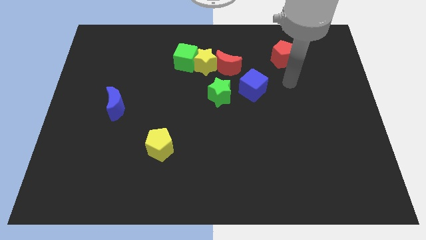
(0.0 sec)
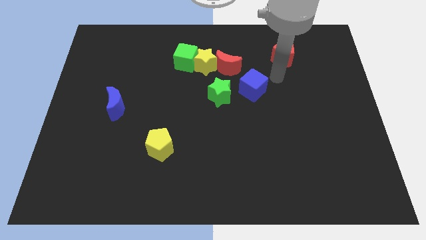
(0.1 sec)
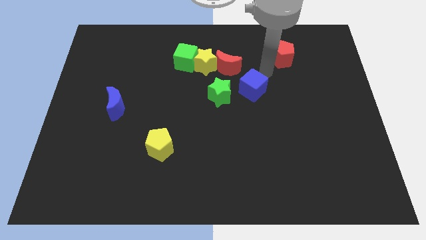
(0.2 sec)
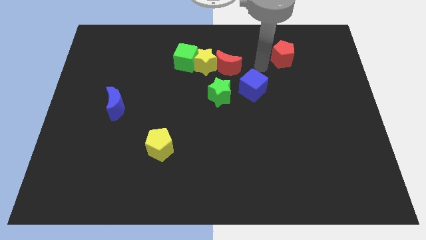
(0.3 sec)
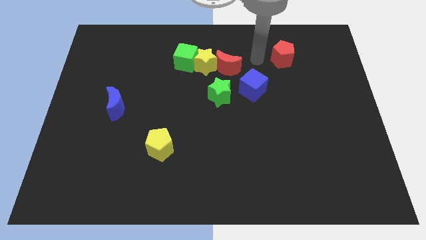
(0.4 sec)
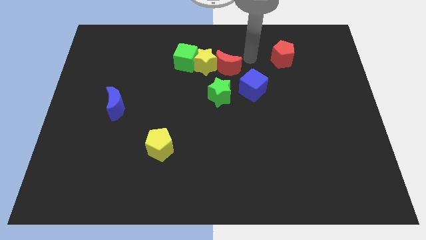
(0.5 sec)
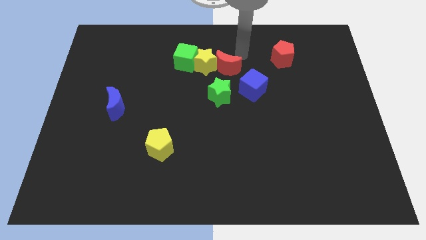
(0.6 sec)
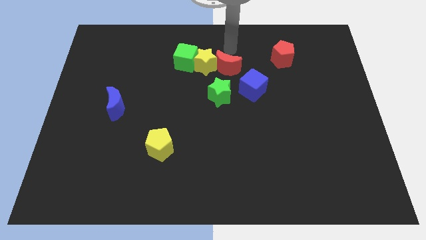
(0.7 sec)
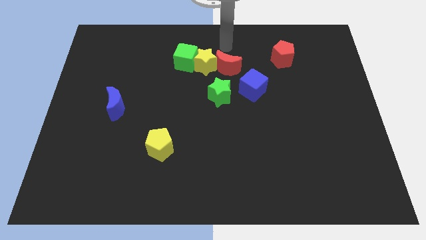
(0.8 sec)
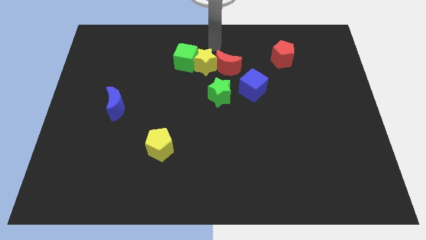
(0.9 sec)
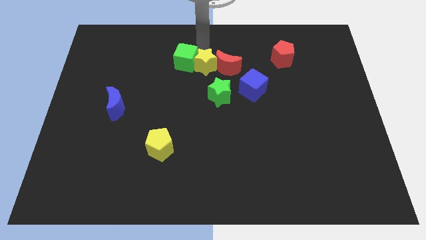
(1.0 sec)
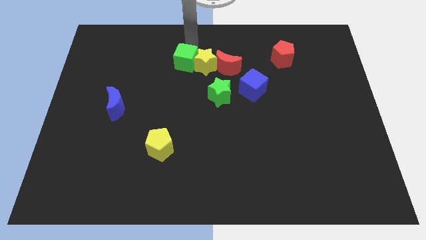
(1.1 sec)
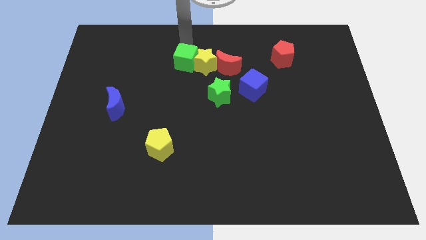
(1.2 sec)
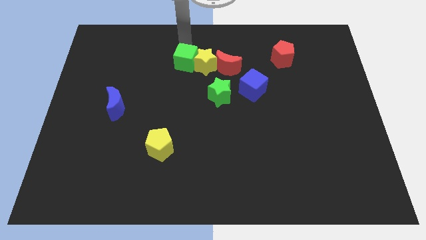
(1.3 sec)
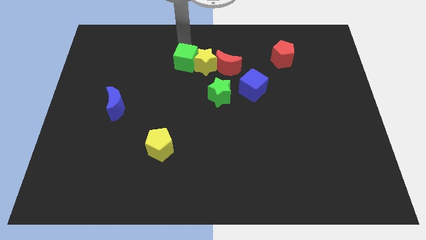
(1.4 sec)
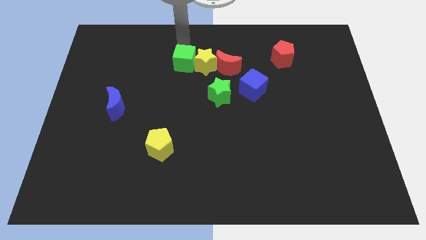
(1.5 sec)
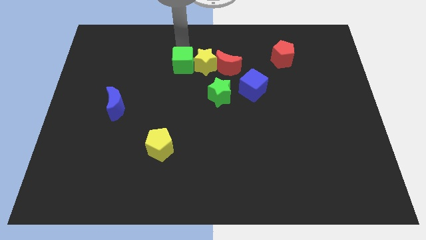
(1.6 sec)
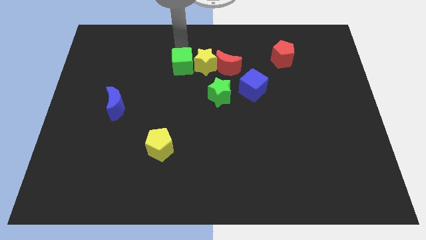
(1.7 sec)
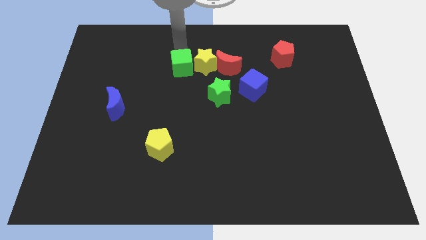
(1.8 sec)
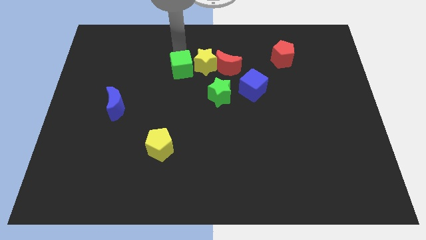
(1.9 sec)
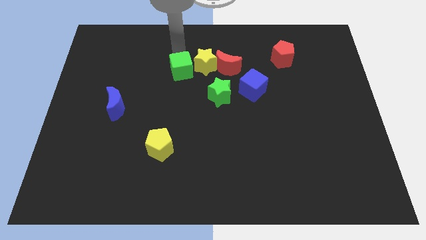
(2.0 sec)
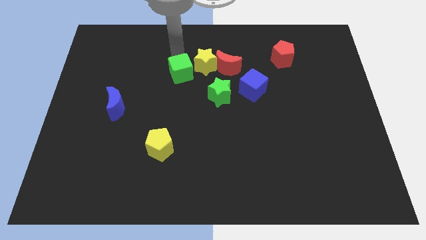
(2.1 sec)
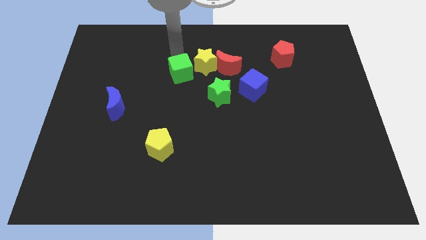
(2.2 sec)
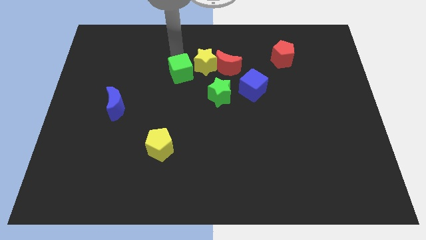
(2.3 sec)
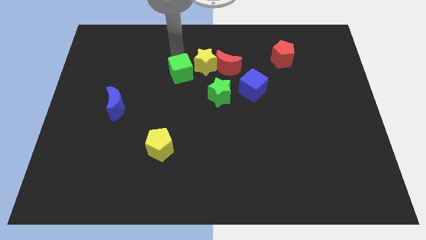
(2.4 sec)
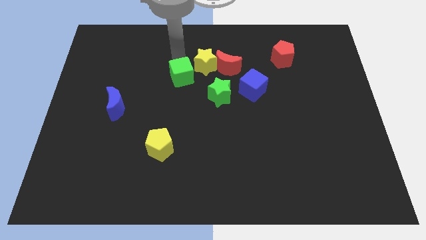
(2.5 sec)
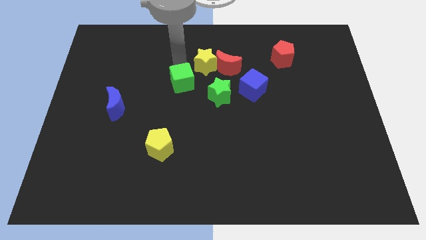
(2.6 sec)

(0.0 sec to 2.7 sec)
slightly slide the green cube down

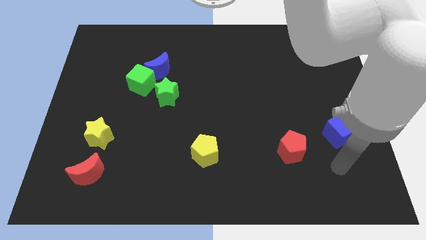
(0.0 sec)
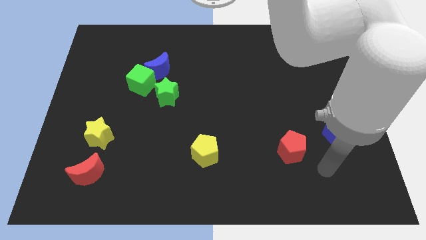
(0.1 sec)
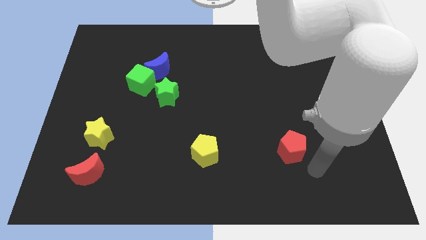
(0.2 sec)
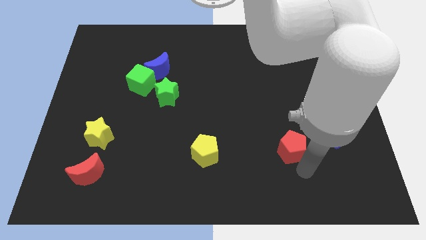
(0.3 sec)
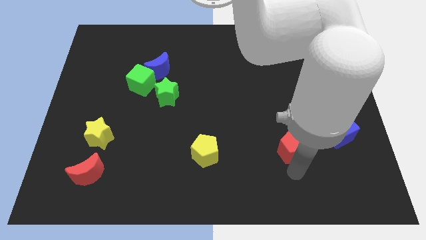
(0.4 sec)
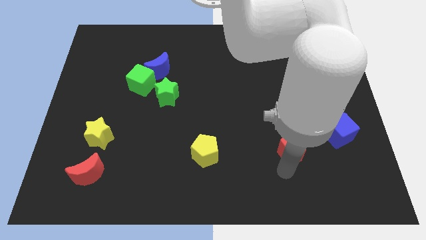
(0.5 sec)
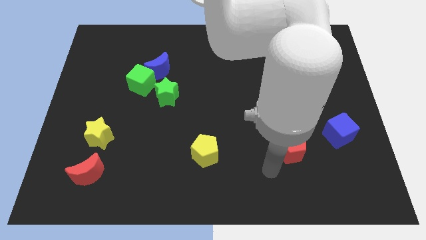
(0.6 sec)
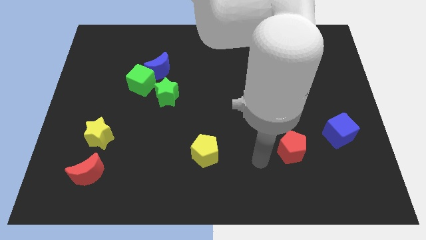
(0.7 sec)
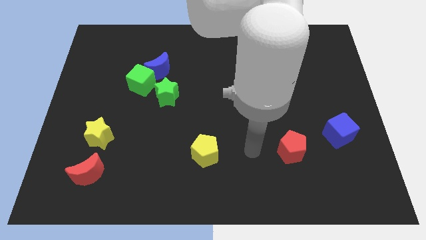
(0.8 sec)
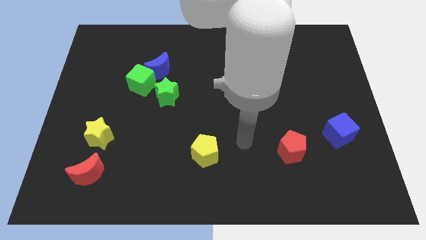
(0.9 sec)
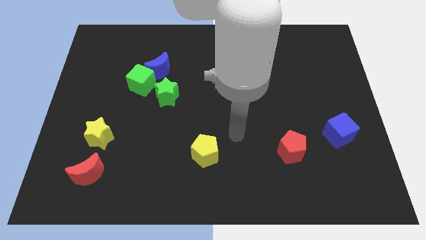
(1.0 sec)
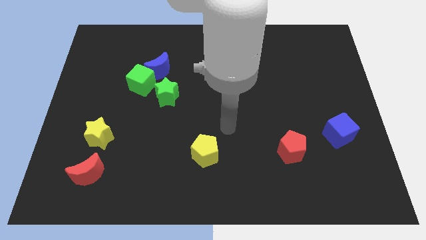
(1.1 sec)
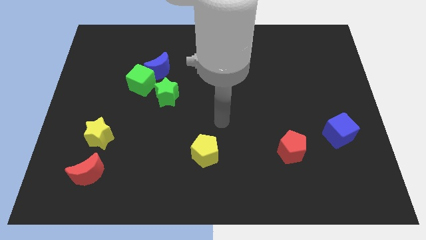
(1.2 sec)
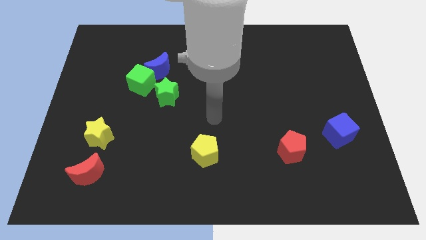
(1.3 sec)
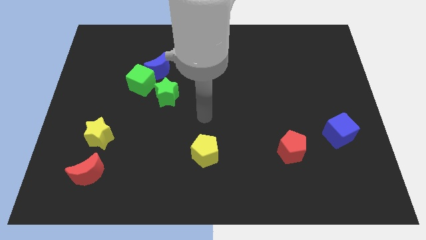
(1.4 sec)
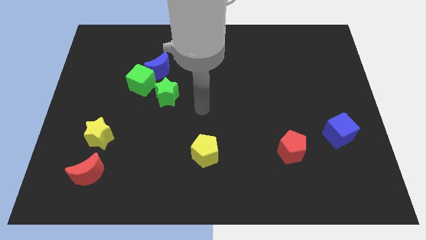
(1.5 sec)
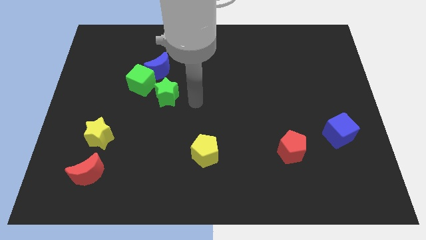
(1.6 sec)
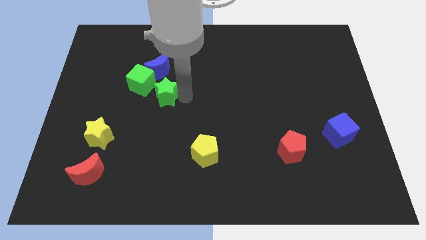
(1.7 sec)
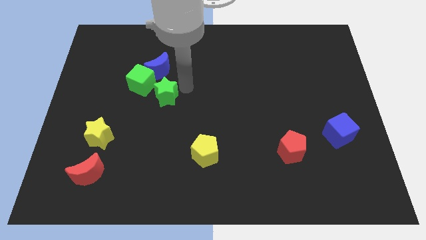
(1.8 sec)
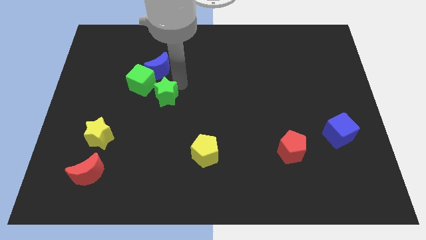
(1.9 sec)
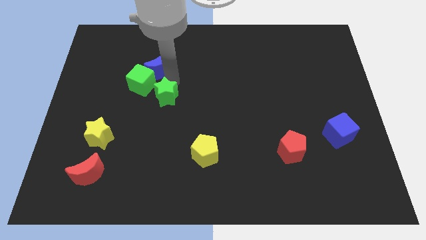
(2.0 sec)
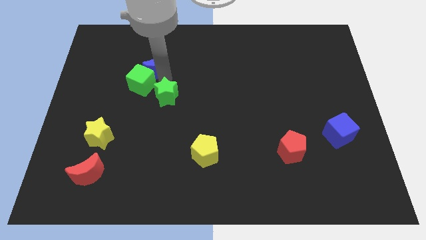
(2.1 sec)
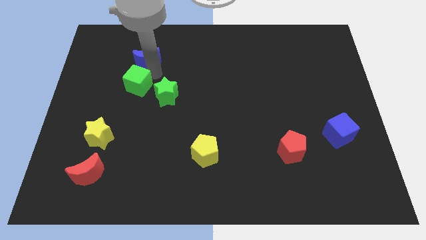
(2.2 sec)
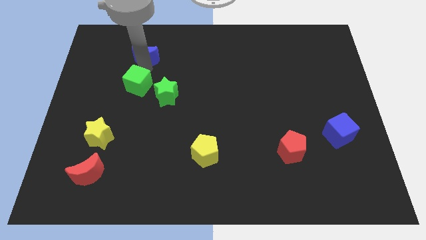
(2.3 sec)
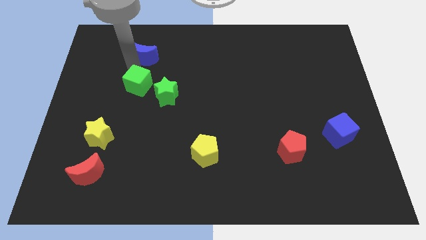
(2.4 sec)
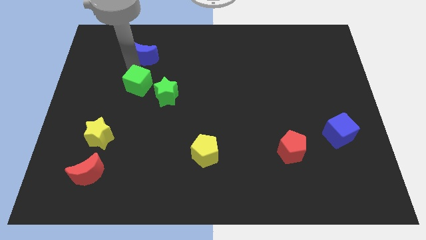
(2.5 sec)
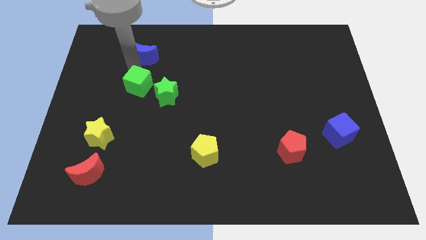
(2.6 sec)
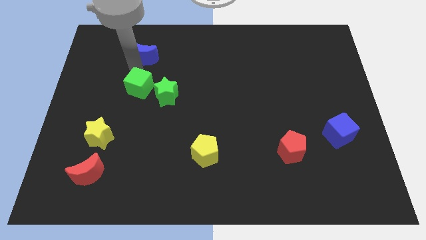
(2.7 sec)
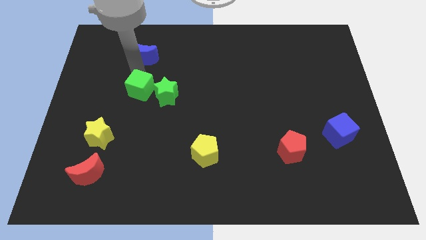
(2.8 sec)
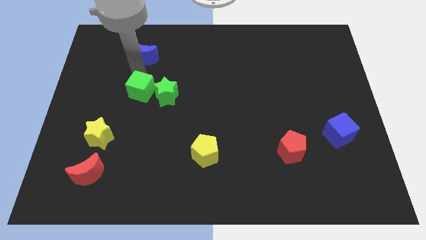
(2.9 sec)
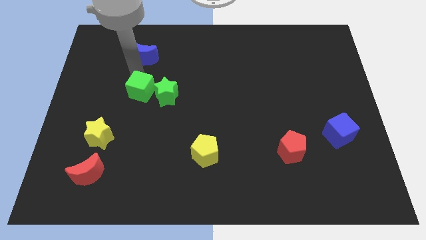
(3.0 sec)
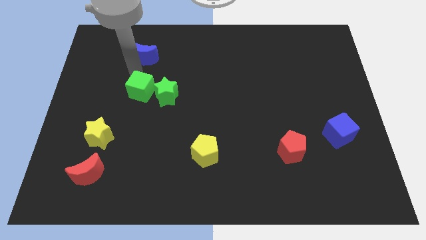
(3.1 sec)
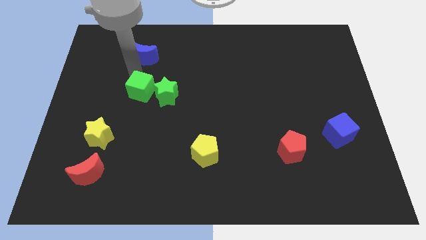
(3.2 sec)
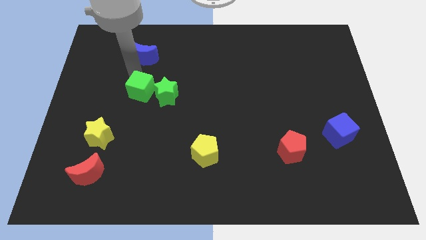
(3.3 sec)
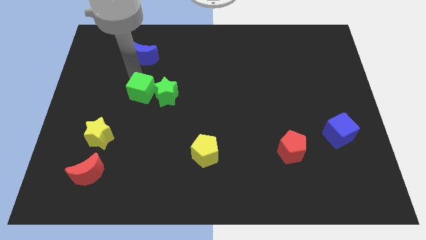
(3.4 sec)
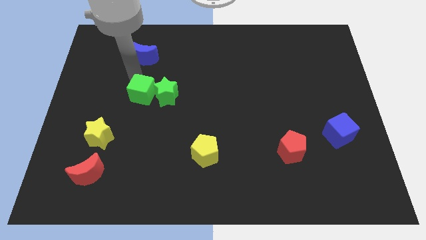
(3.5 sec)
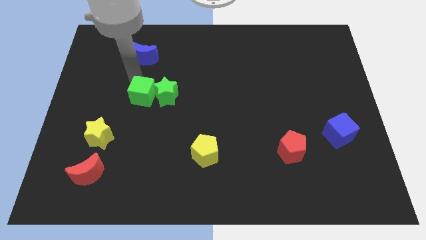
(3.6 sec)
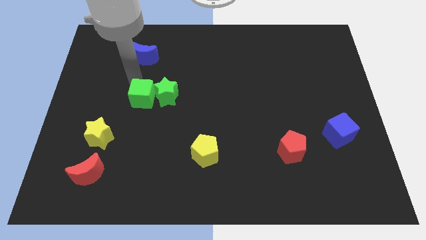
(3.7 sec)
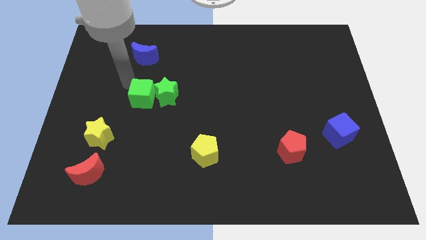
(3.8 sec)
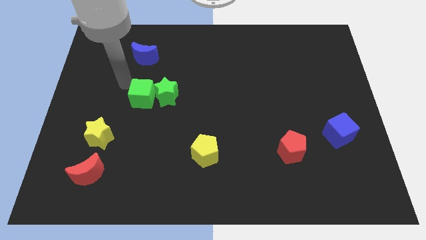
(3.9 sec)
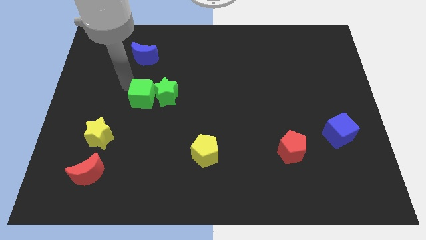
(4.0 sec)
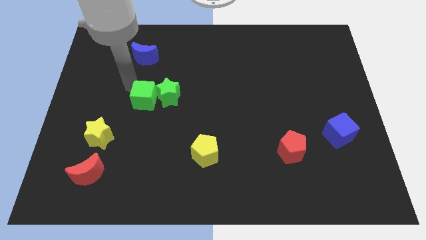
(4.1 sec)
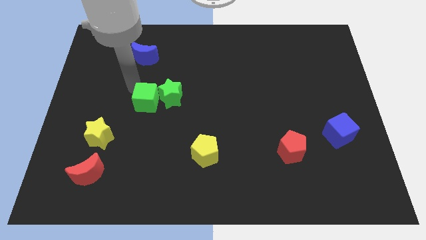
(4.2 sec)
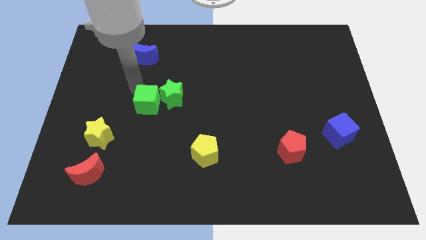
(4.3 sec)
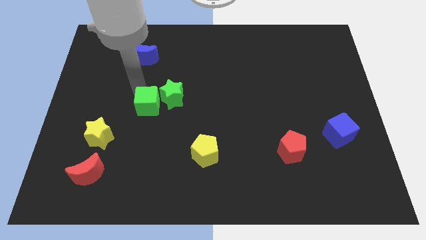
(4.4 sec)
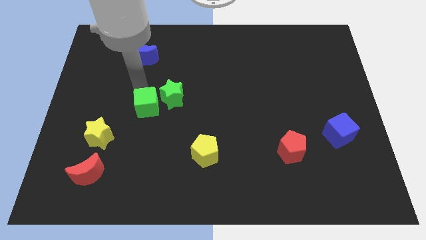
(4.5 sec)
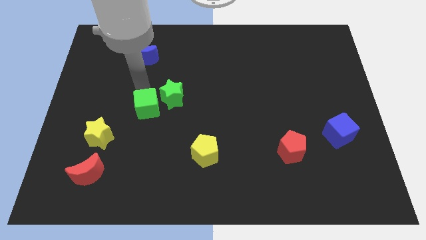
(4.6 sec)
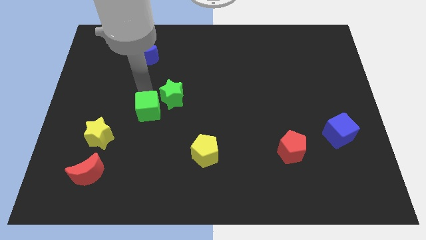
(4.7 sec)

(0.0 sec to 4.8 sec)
slightly slide the green cube downwards and to the right diagonally

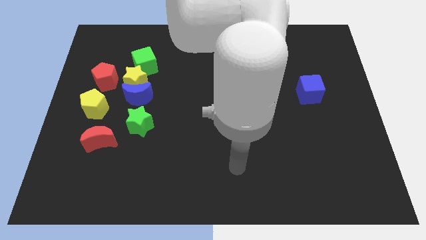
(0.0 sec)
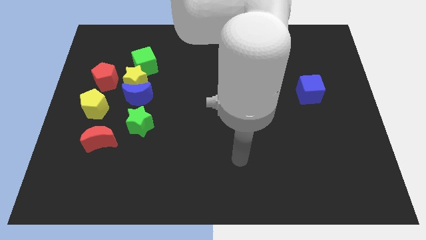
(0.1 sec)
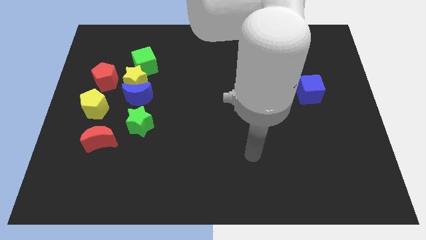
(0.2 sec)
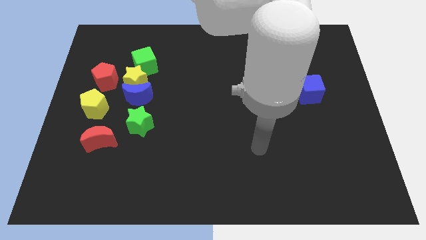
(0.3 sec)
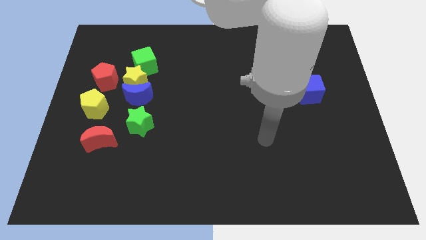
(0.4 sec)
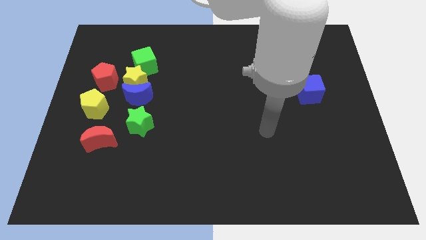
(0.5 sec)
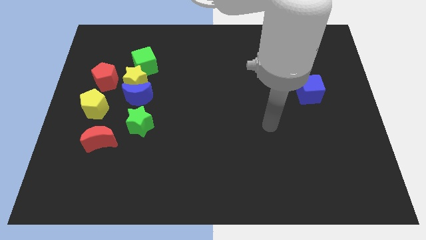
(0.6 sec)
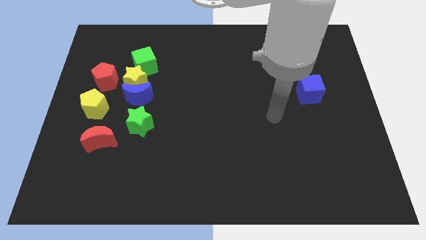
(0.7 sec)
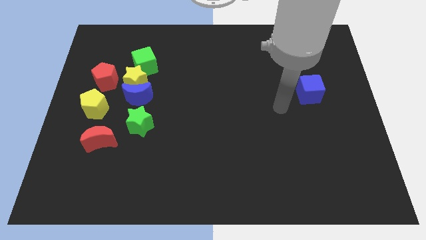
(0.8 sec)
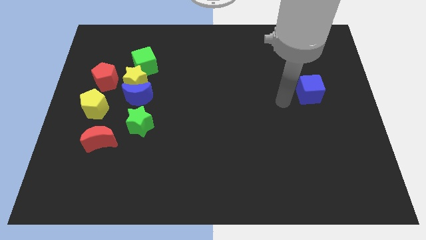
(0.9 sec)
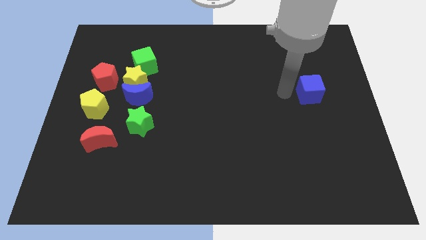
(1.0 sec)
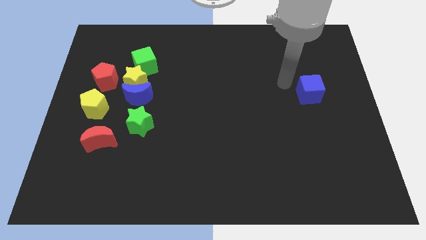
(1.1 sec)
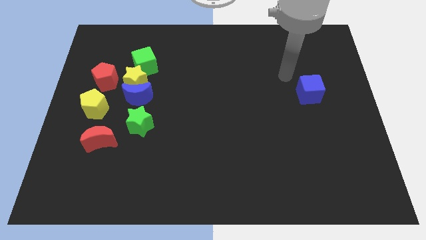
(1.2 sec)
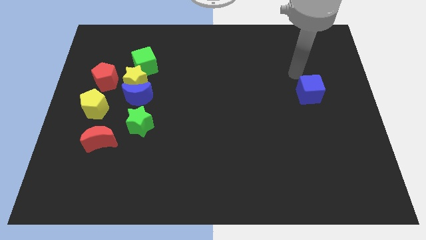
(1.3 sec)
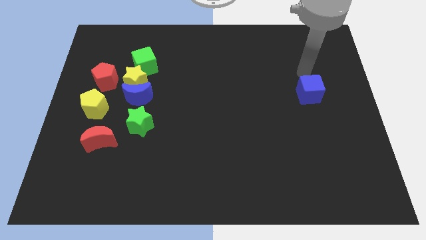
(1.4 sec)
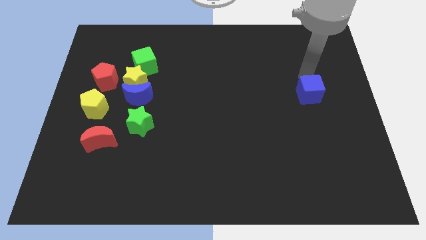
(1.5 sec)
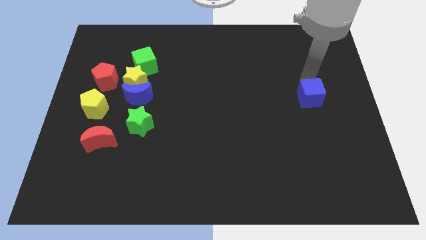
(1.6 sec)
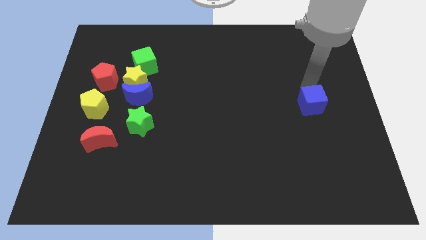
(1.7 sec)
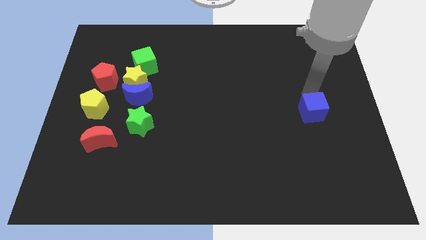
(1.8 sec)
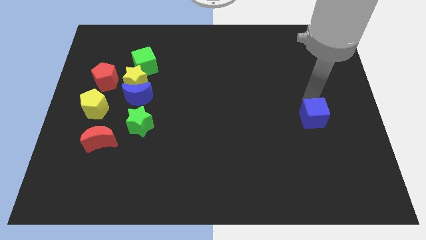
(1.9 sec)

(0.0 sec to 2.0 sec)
slightly slide the blue cube downwards
